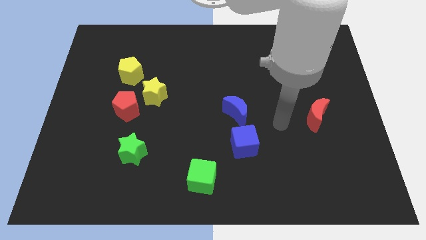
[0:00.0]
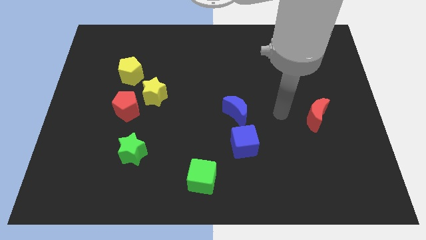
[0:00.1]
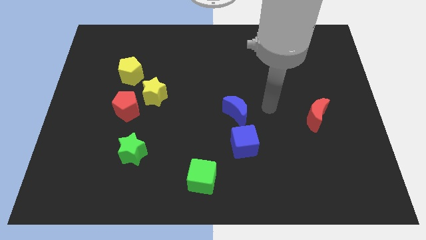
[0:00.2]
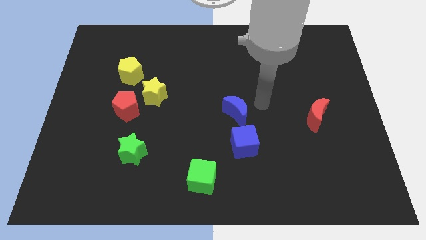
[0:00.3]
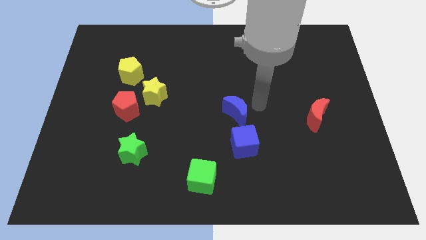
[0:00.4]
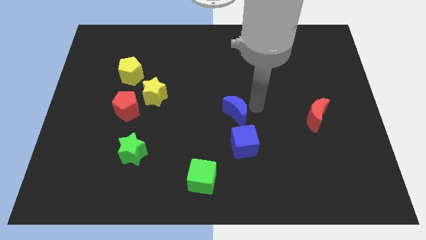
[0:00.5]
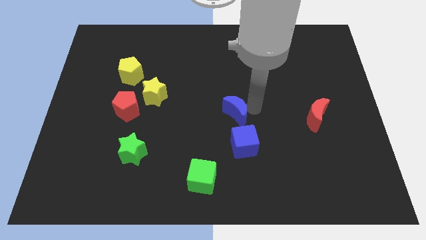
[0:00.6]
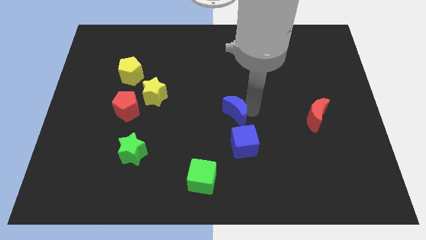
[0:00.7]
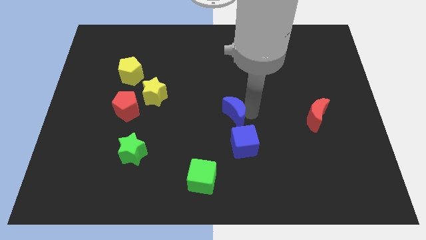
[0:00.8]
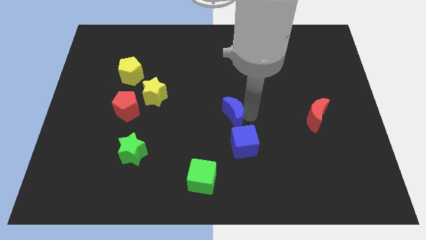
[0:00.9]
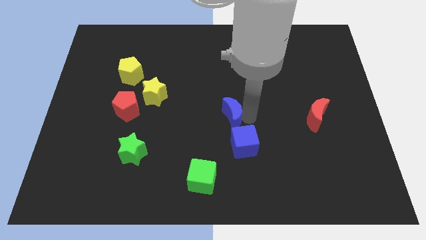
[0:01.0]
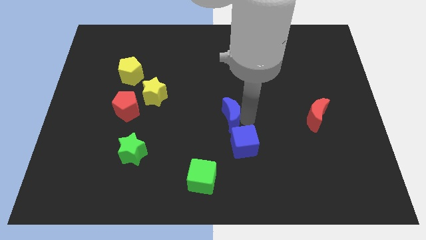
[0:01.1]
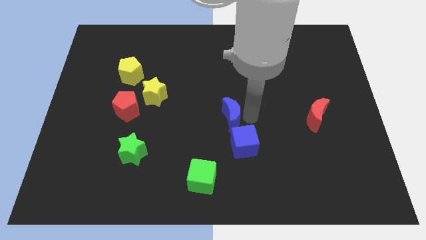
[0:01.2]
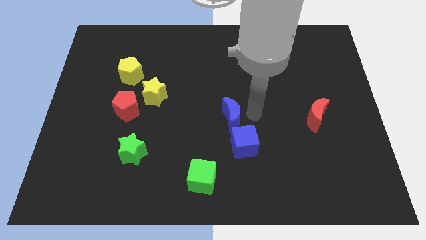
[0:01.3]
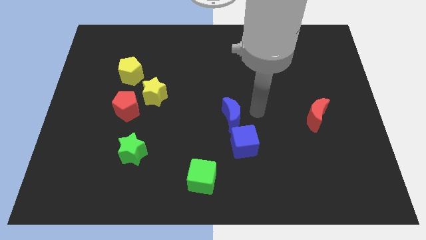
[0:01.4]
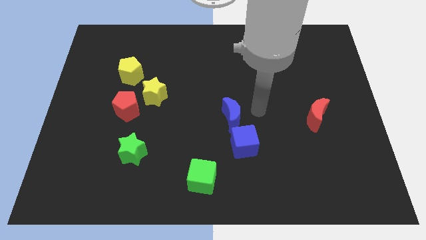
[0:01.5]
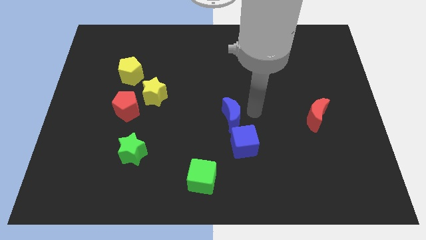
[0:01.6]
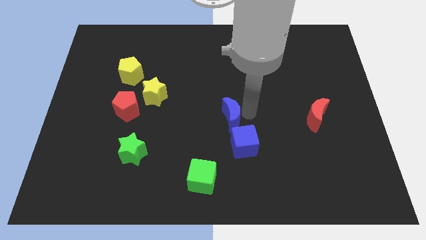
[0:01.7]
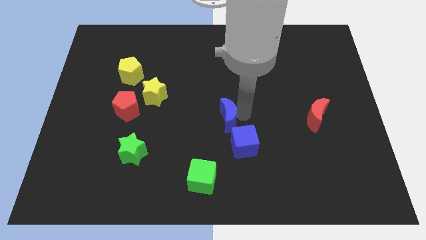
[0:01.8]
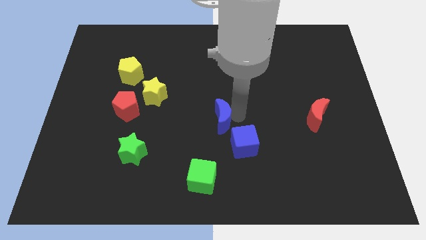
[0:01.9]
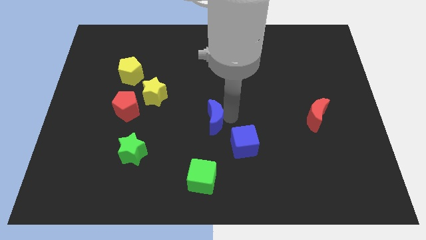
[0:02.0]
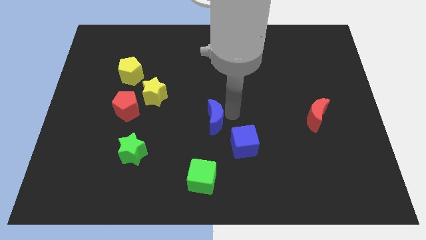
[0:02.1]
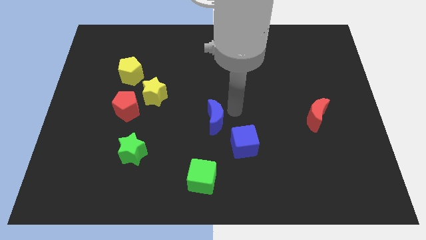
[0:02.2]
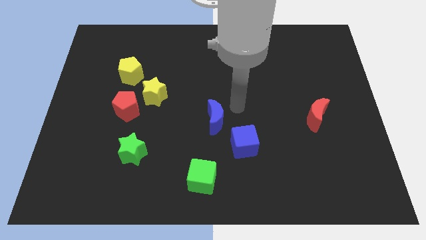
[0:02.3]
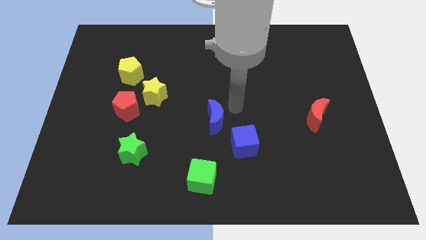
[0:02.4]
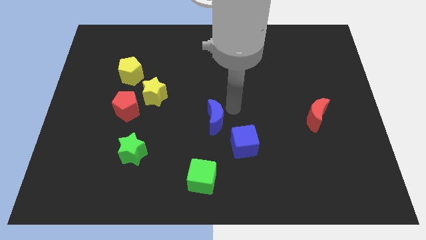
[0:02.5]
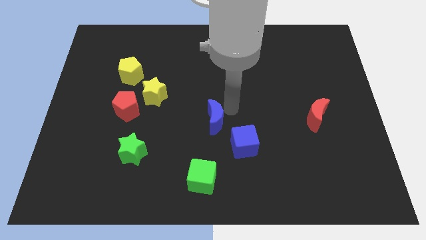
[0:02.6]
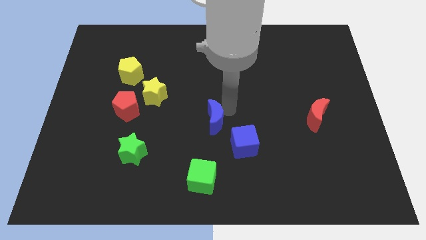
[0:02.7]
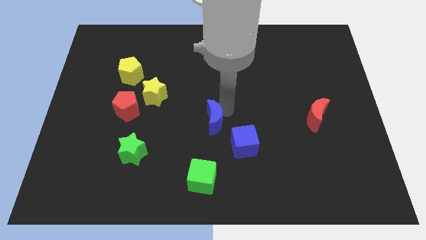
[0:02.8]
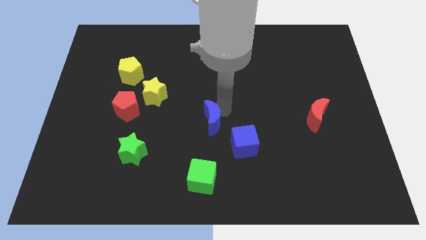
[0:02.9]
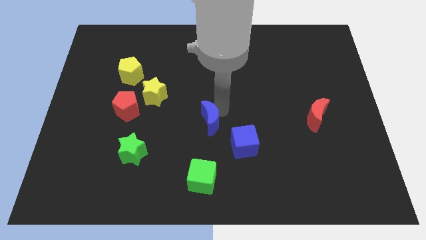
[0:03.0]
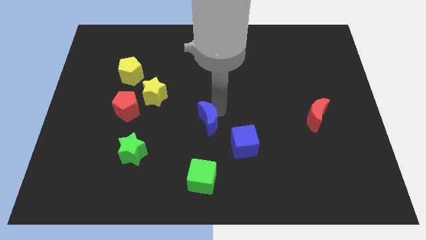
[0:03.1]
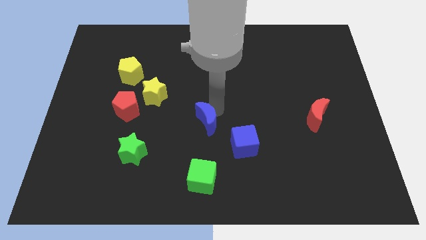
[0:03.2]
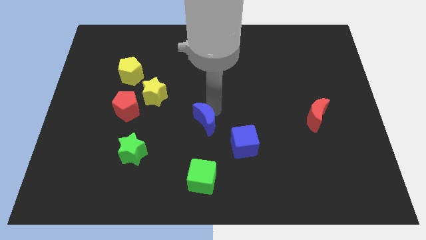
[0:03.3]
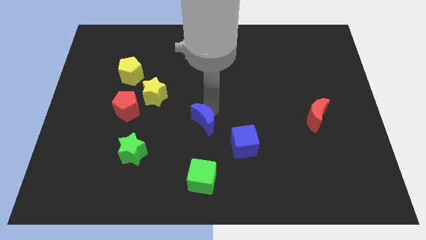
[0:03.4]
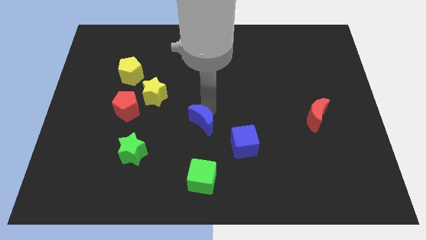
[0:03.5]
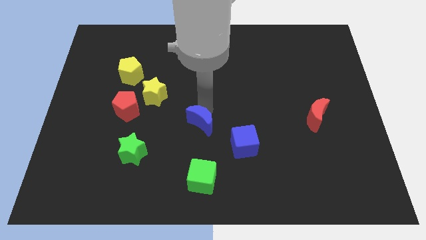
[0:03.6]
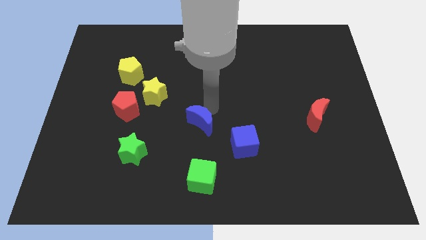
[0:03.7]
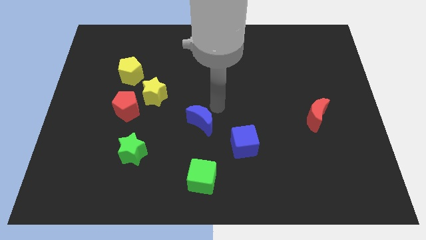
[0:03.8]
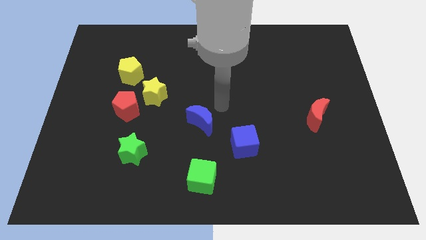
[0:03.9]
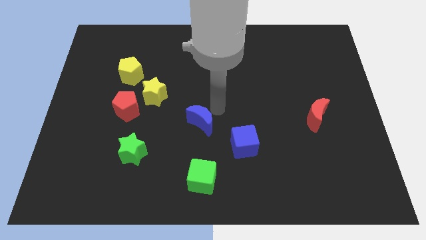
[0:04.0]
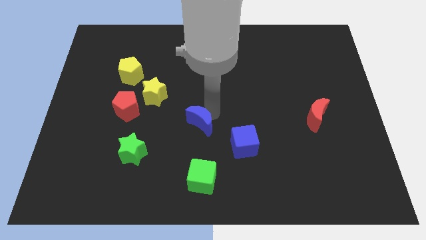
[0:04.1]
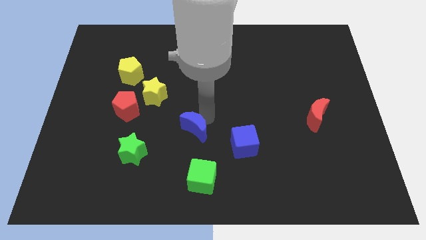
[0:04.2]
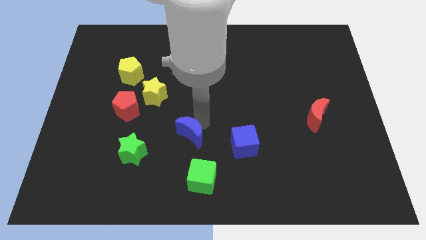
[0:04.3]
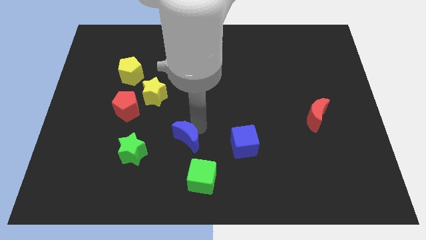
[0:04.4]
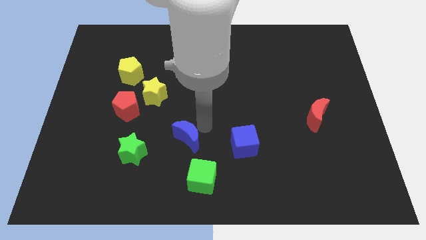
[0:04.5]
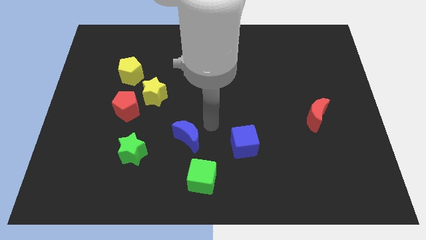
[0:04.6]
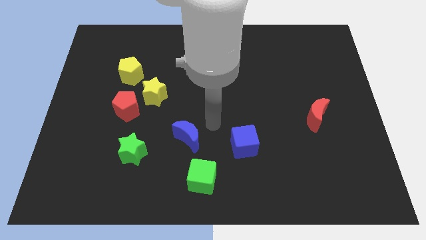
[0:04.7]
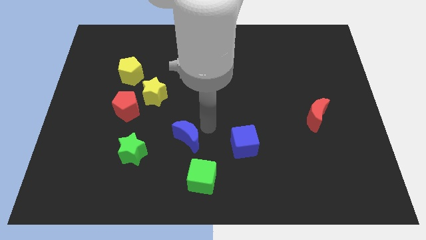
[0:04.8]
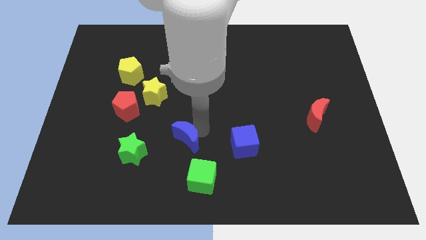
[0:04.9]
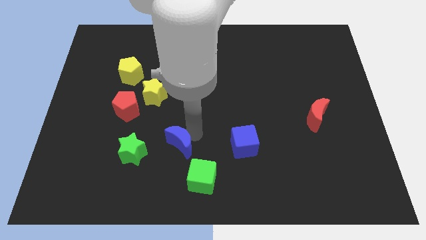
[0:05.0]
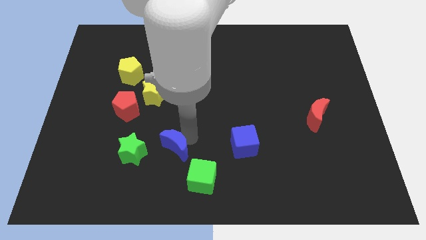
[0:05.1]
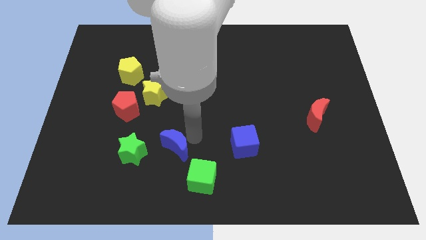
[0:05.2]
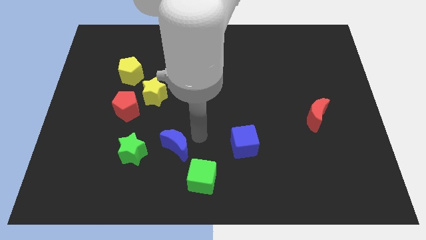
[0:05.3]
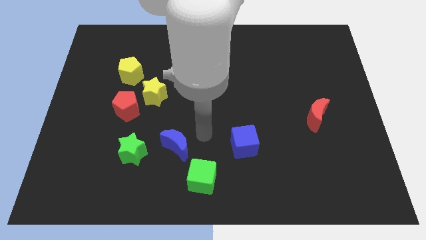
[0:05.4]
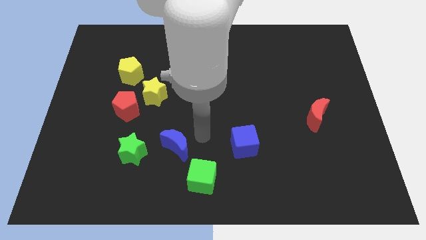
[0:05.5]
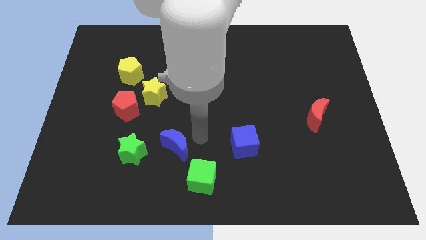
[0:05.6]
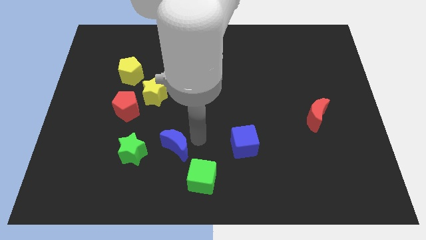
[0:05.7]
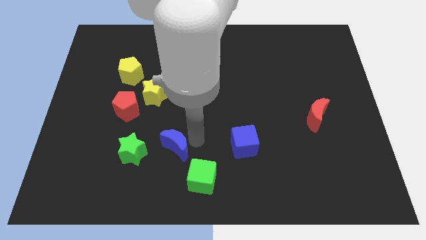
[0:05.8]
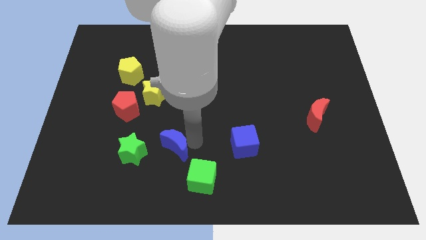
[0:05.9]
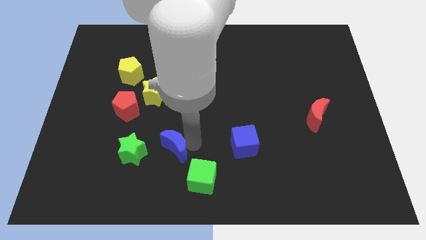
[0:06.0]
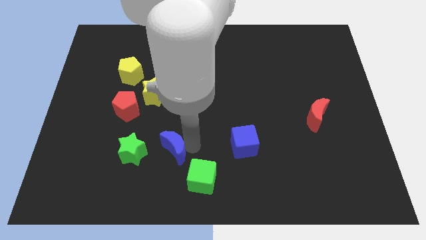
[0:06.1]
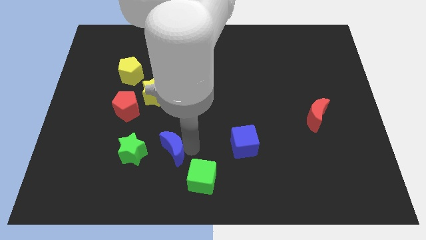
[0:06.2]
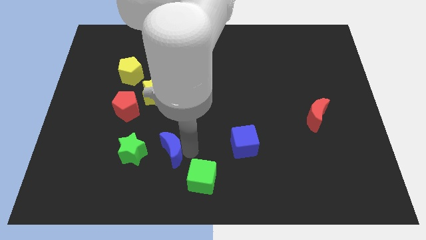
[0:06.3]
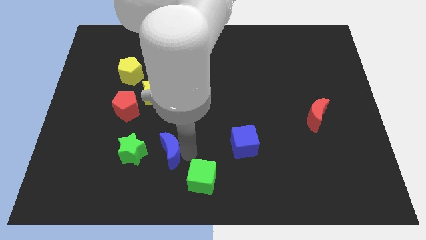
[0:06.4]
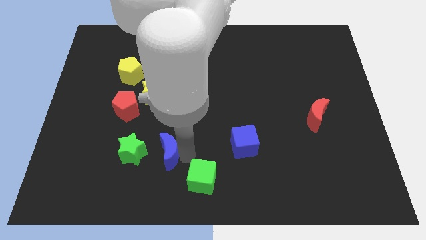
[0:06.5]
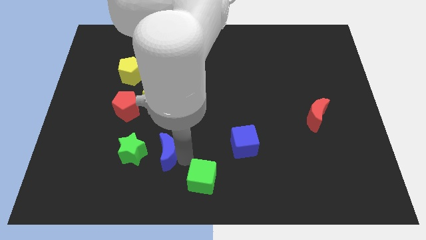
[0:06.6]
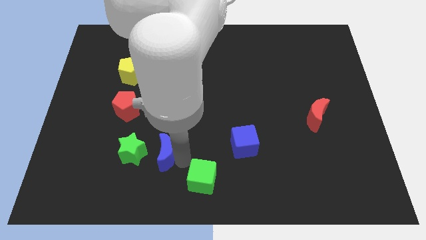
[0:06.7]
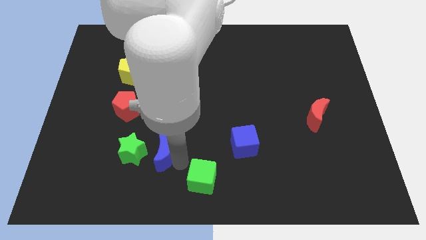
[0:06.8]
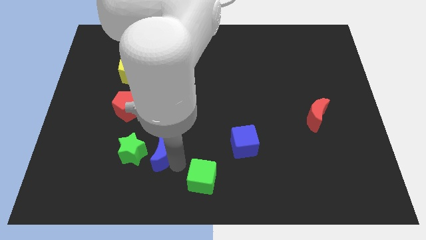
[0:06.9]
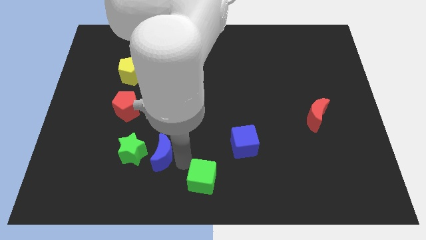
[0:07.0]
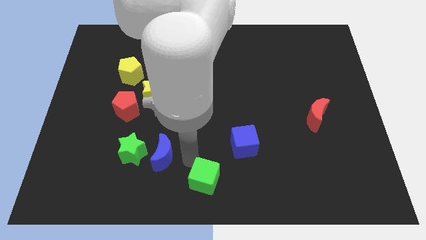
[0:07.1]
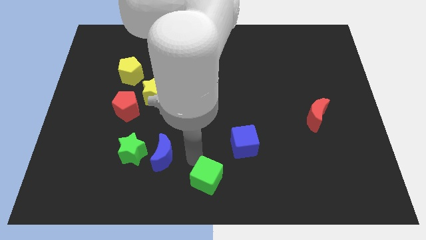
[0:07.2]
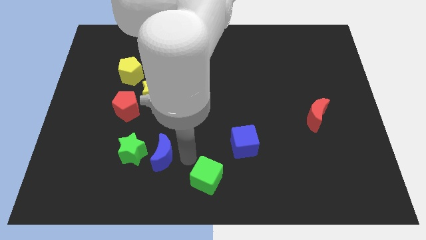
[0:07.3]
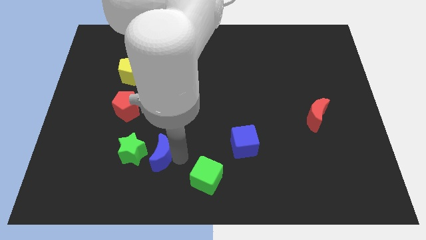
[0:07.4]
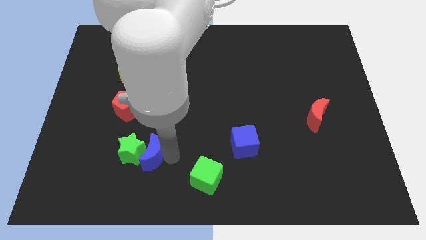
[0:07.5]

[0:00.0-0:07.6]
push the blue moon next to the green star
